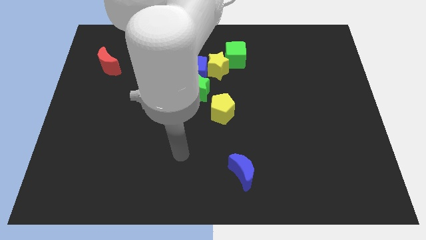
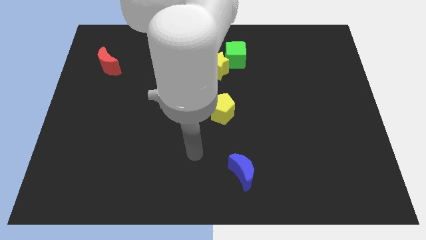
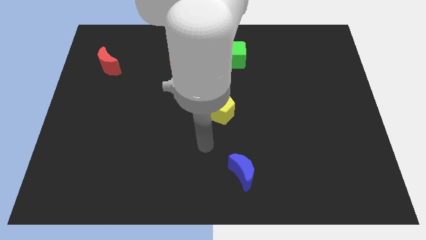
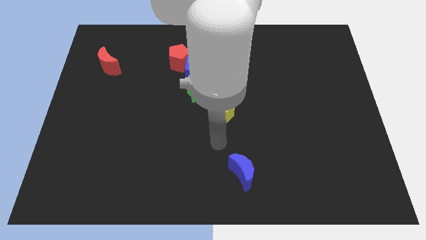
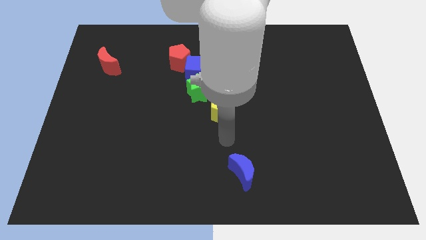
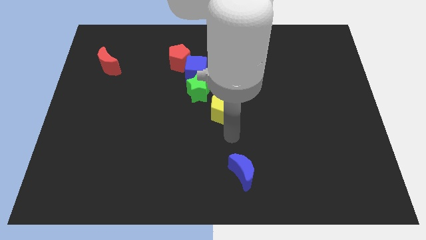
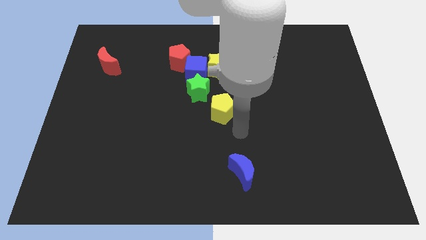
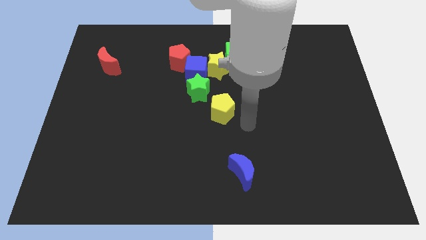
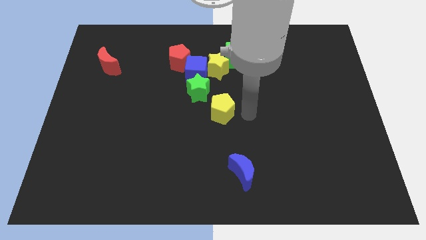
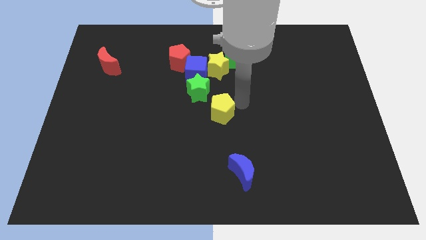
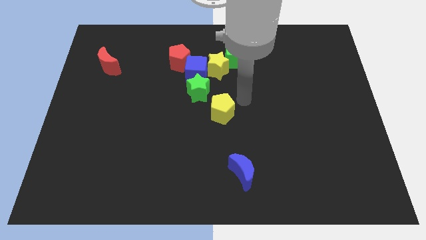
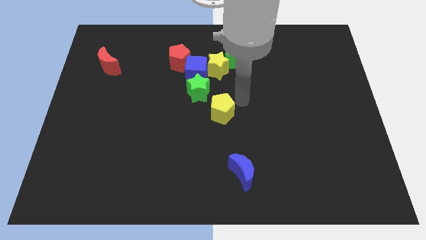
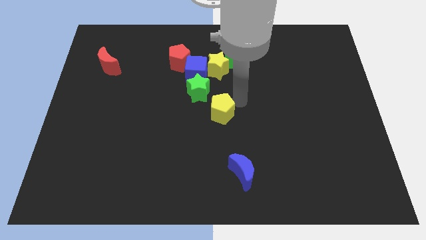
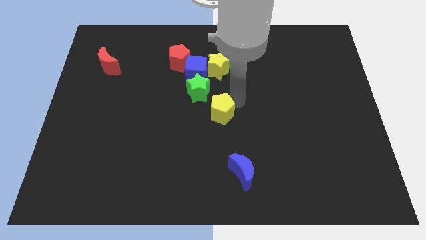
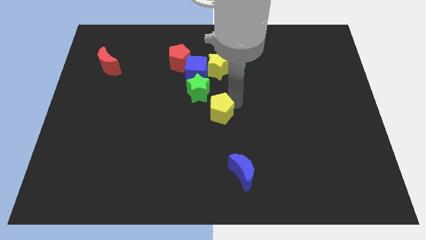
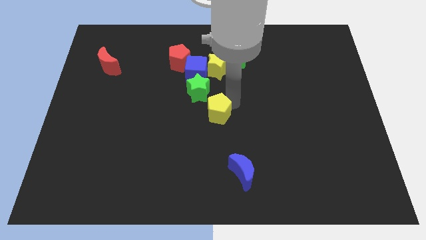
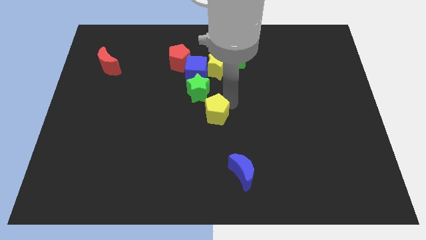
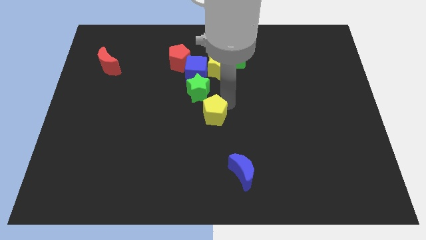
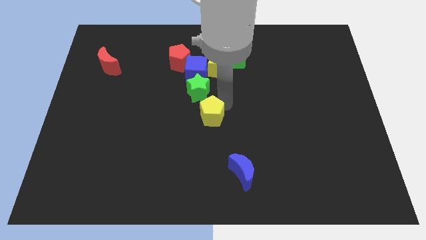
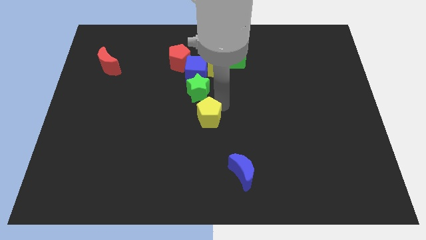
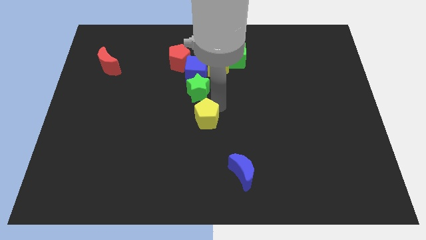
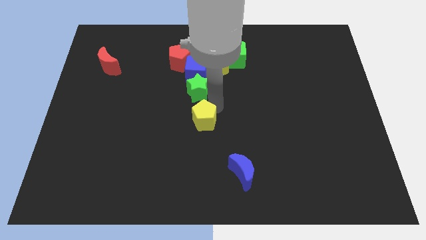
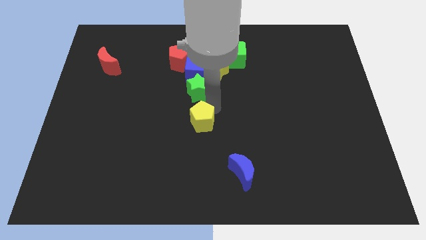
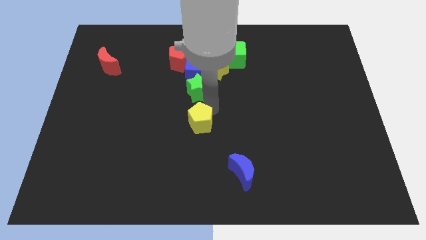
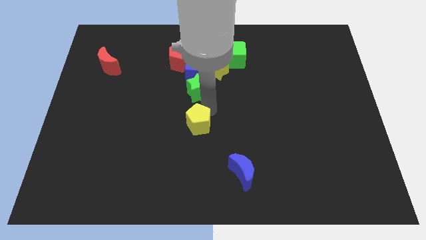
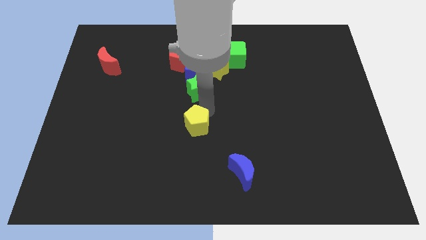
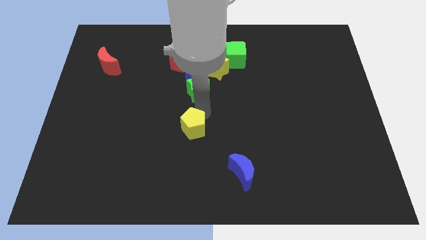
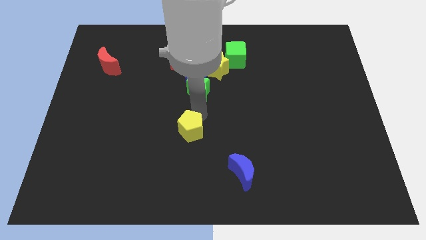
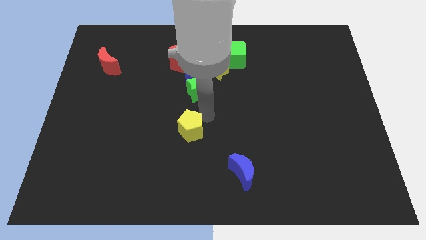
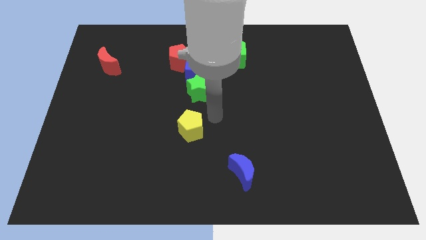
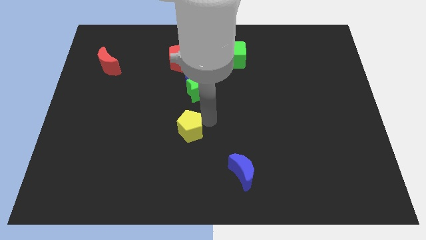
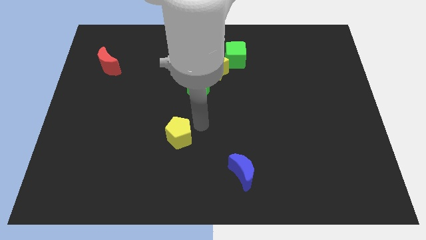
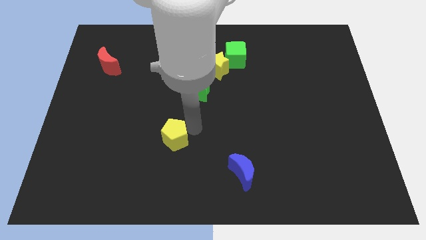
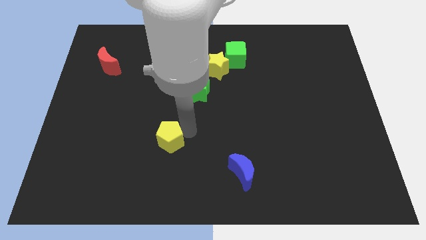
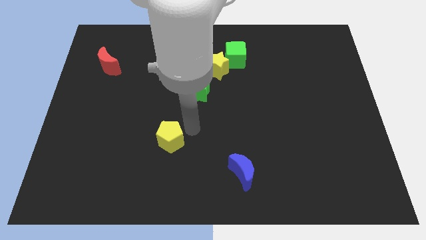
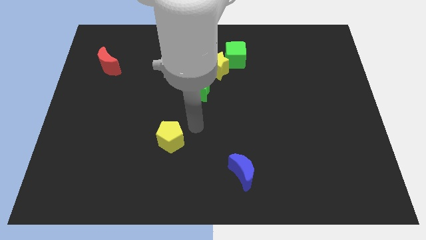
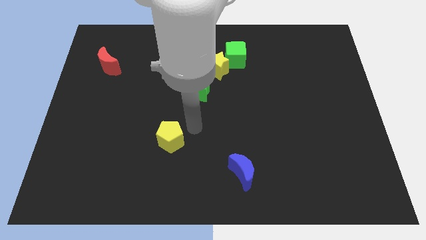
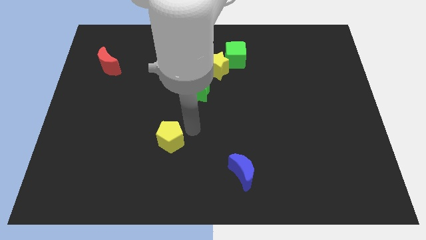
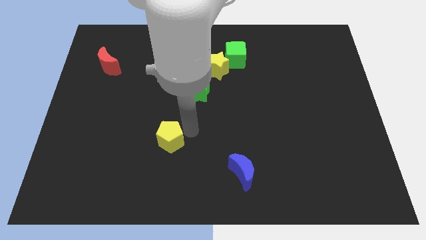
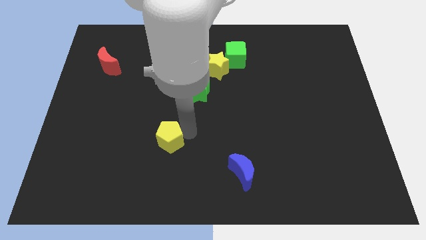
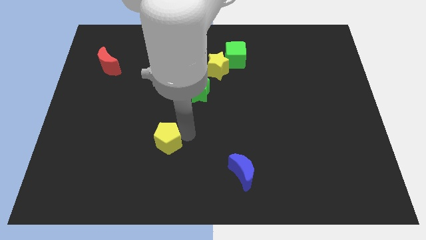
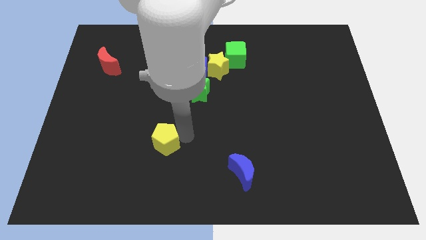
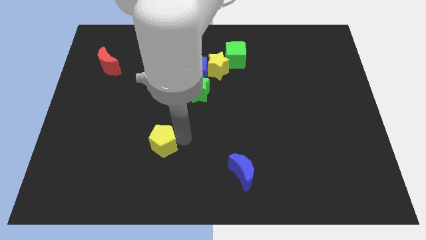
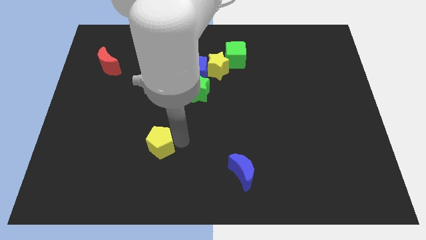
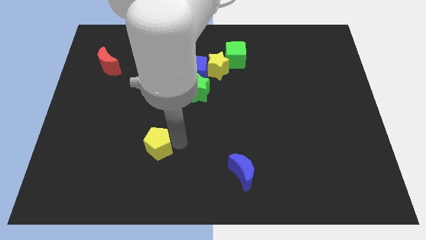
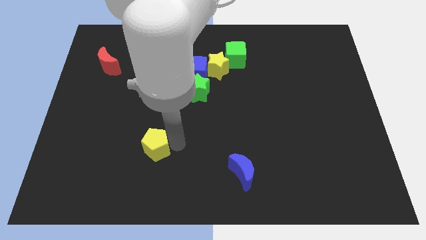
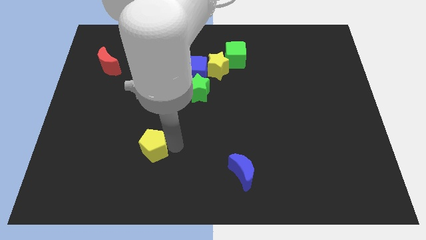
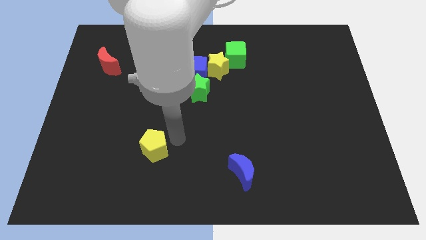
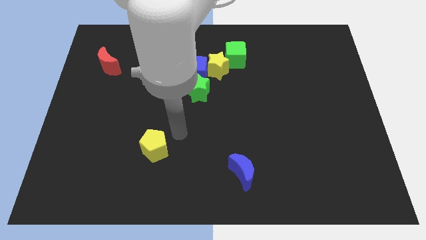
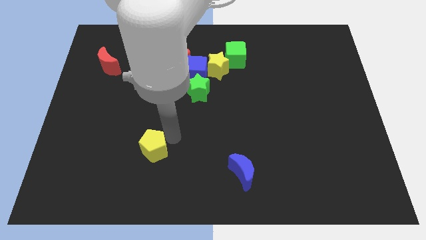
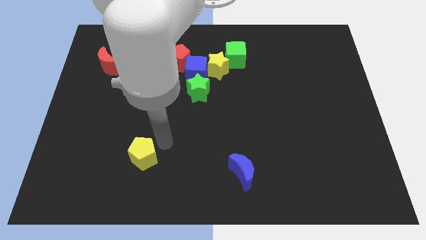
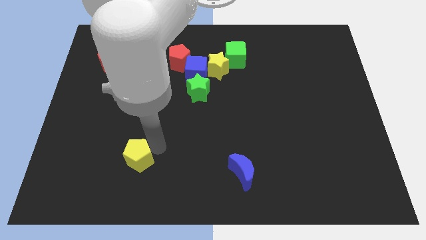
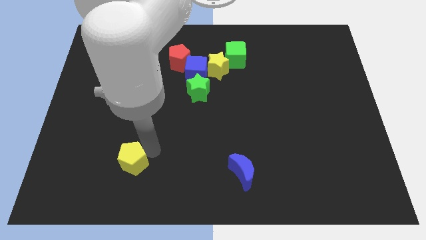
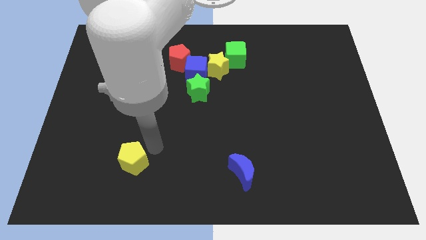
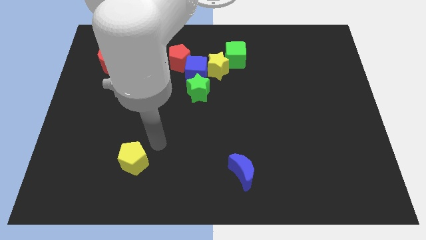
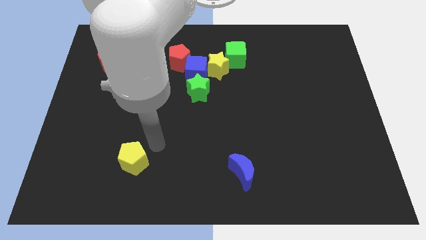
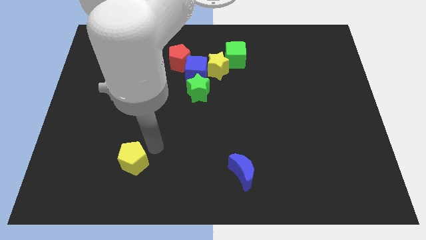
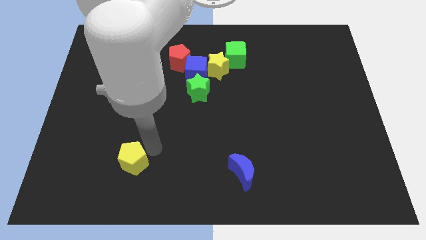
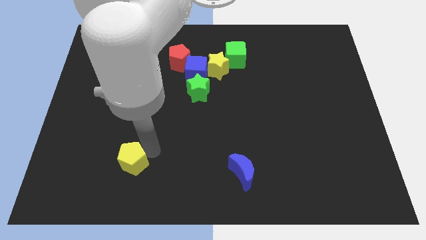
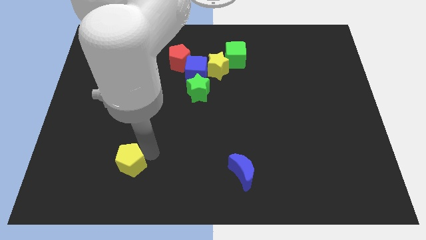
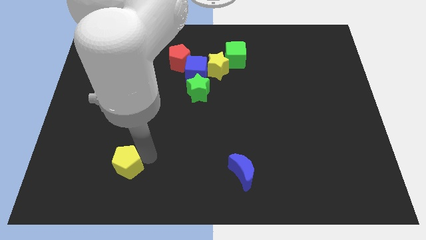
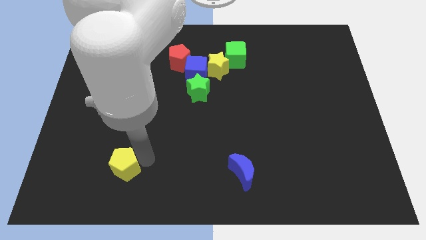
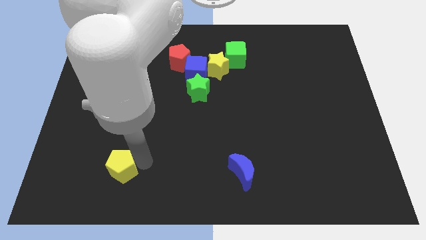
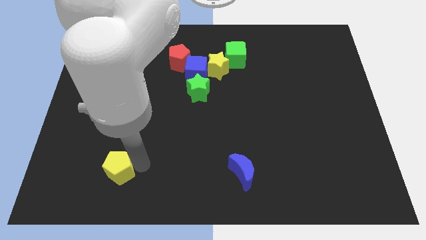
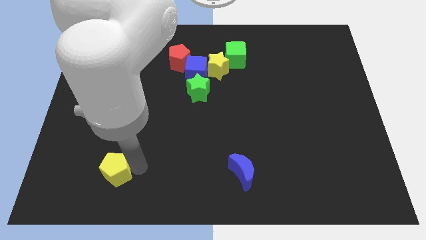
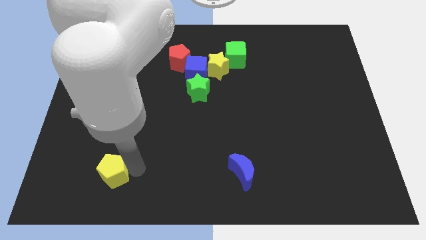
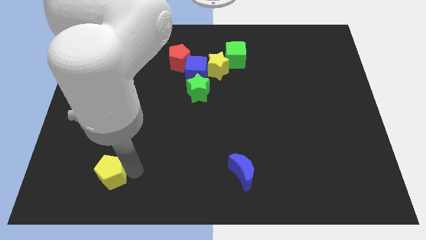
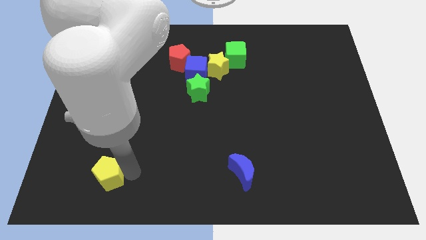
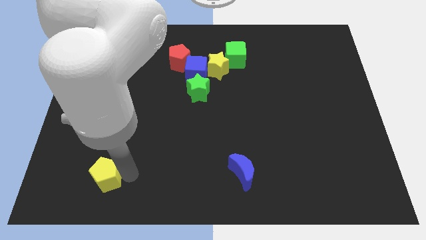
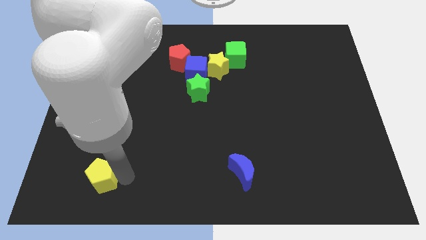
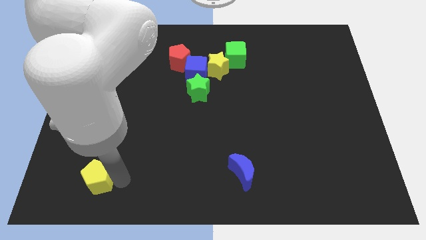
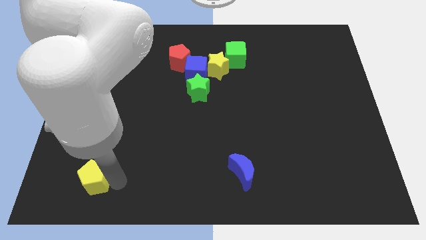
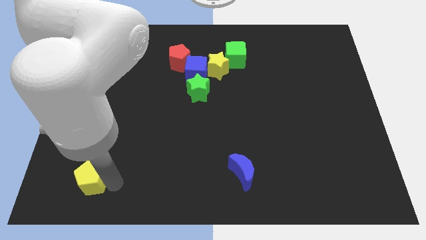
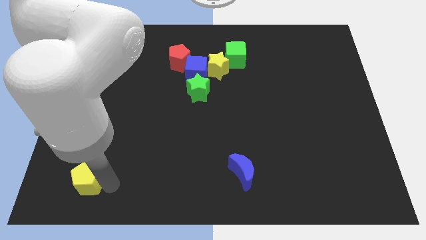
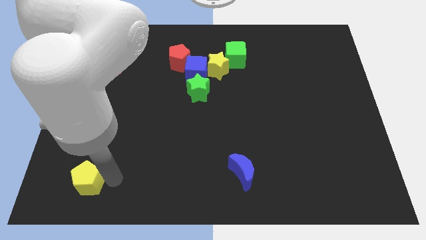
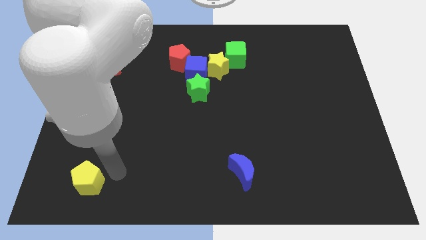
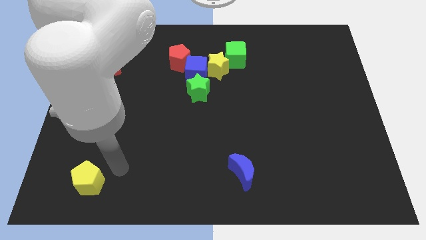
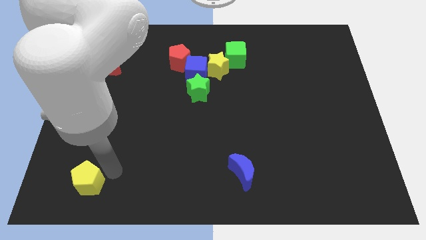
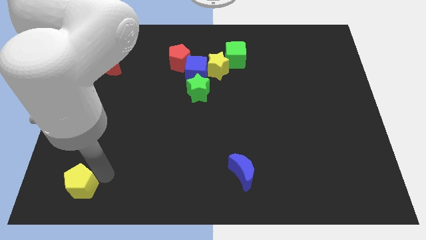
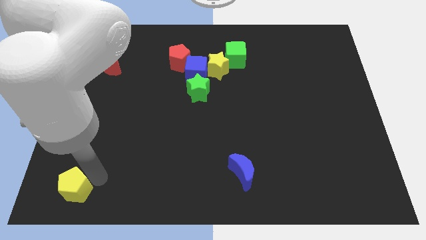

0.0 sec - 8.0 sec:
slide the yellow pentagon to the bottom left corner
